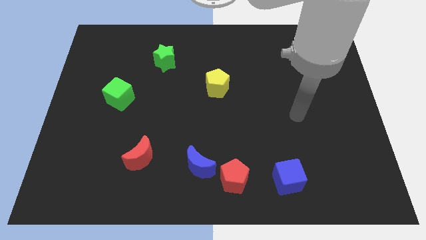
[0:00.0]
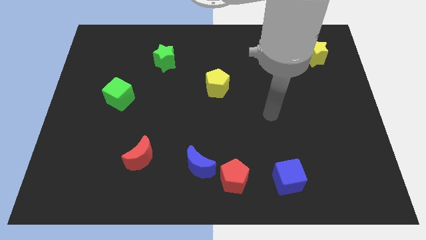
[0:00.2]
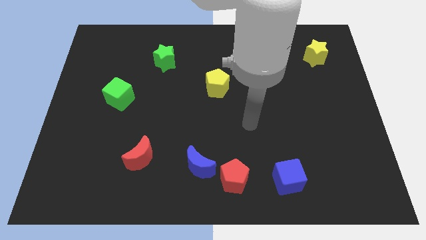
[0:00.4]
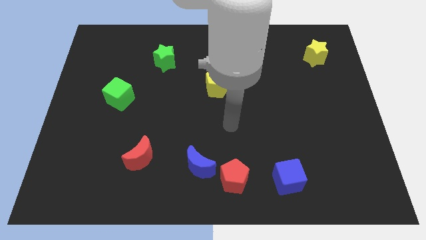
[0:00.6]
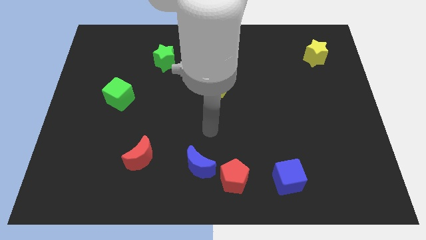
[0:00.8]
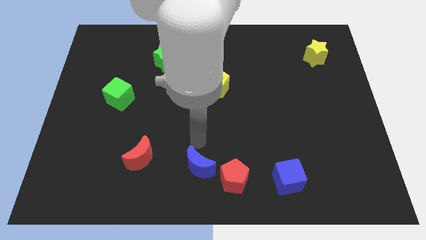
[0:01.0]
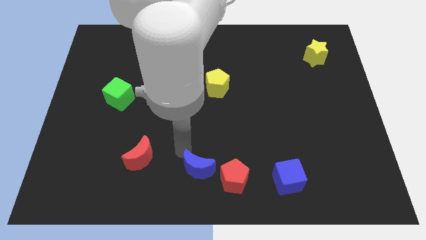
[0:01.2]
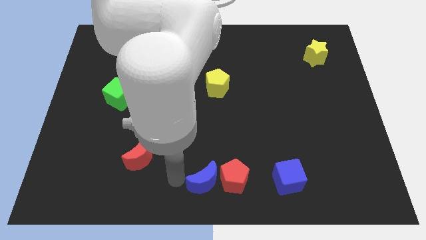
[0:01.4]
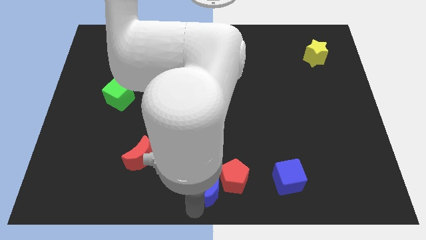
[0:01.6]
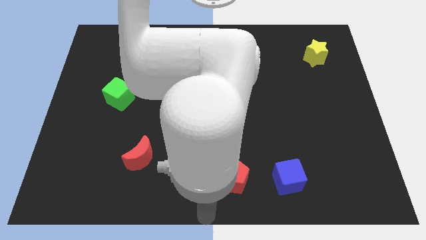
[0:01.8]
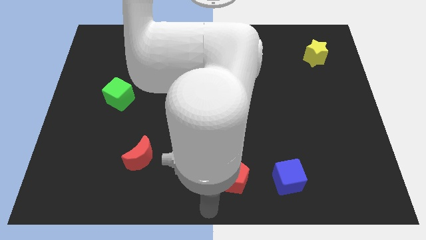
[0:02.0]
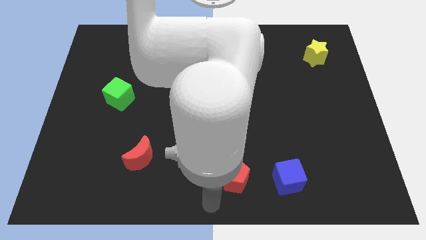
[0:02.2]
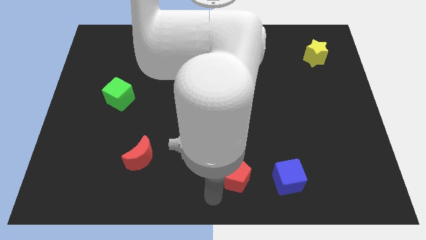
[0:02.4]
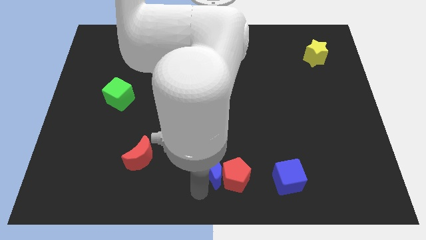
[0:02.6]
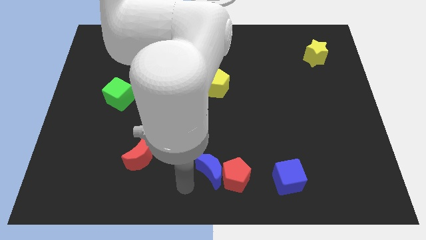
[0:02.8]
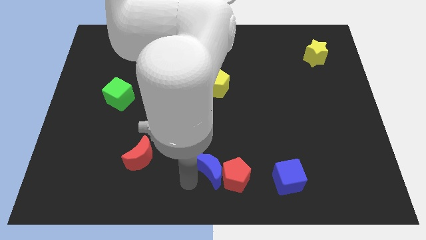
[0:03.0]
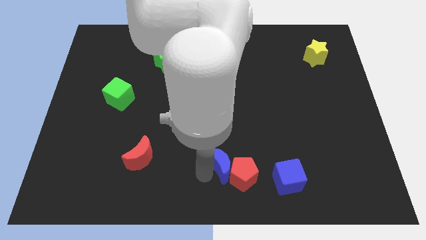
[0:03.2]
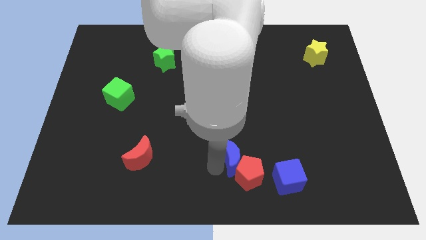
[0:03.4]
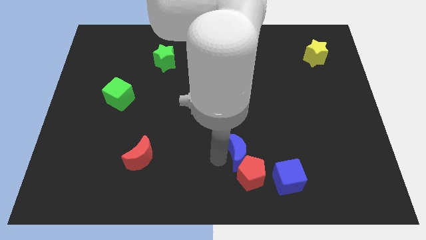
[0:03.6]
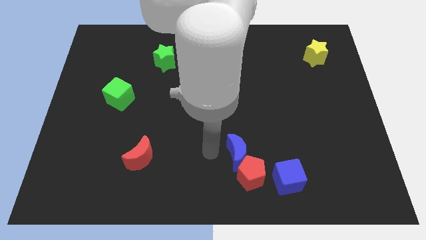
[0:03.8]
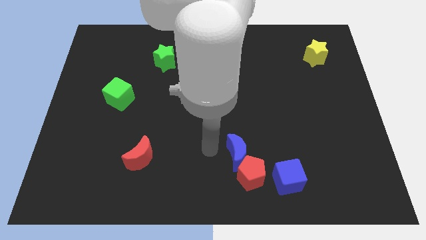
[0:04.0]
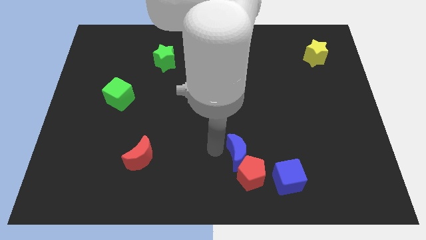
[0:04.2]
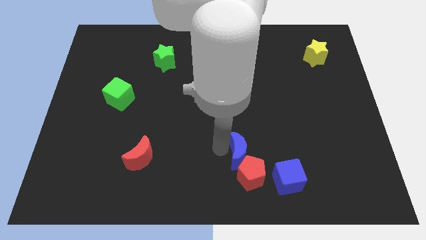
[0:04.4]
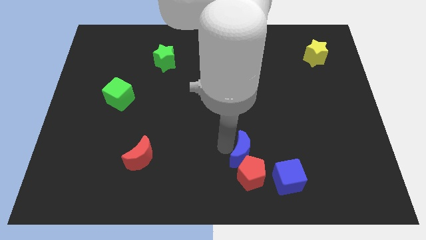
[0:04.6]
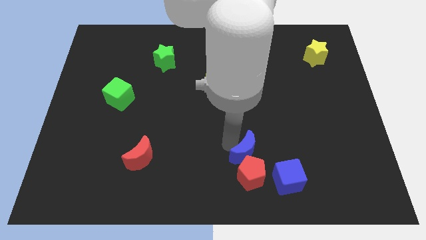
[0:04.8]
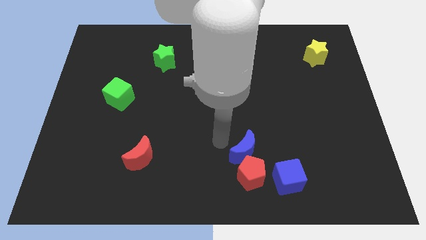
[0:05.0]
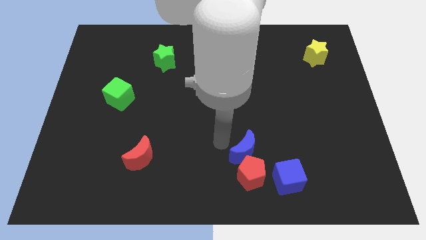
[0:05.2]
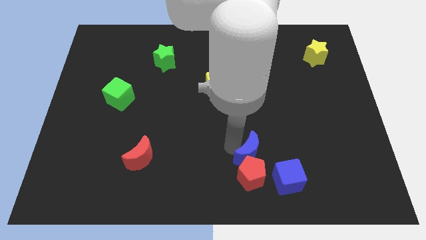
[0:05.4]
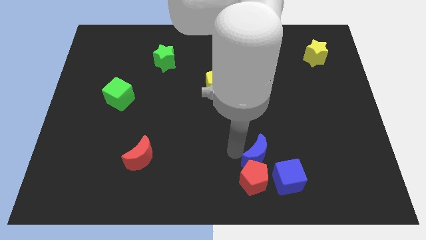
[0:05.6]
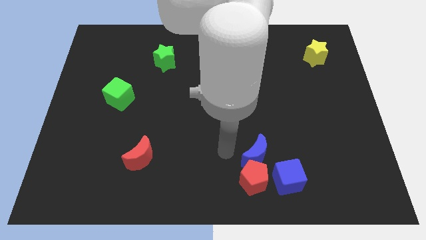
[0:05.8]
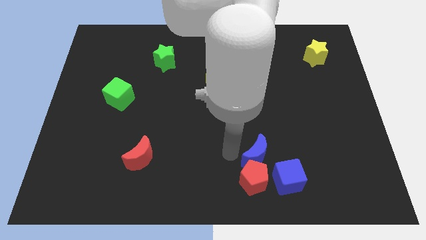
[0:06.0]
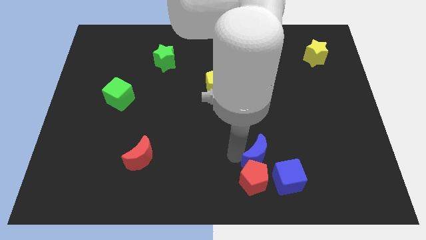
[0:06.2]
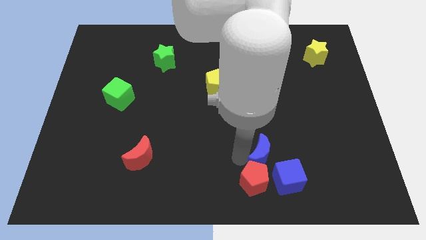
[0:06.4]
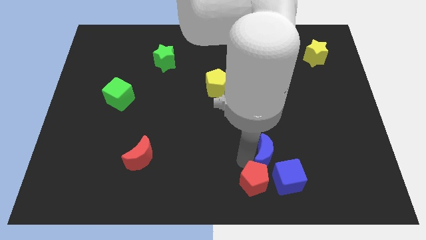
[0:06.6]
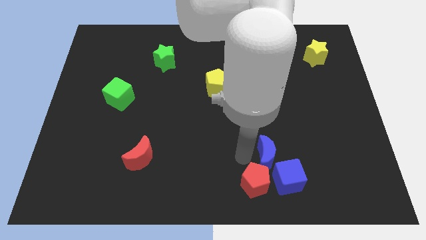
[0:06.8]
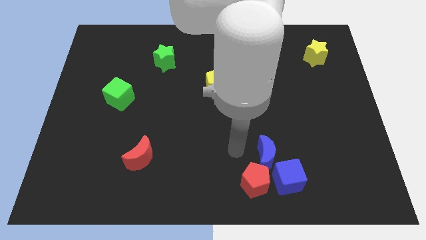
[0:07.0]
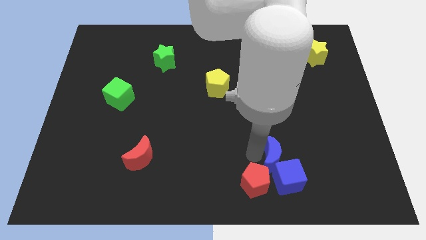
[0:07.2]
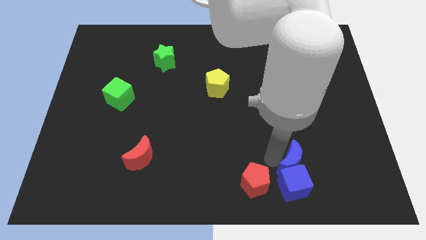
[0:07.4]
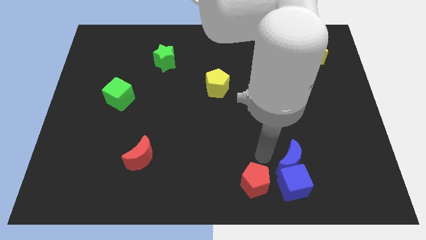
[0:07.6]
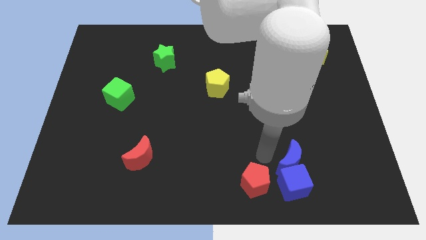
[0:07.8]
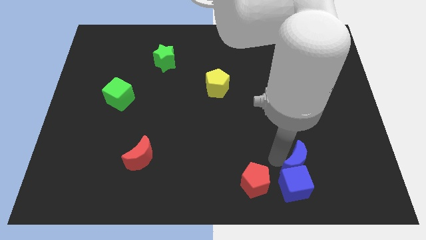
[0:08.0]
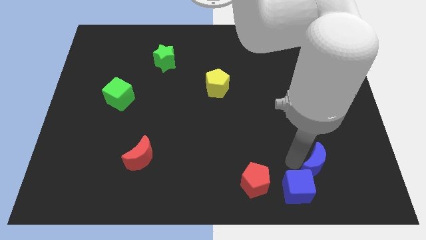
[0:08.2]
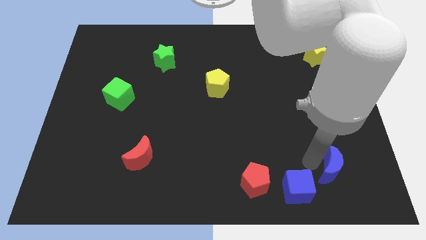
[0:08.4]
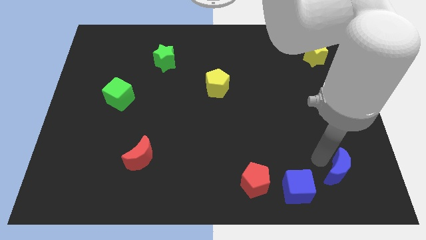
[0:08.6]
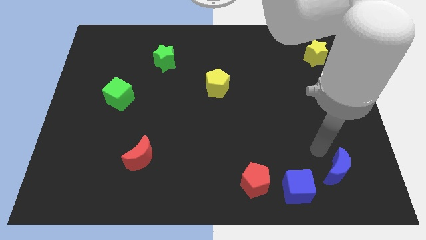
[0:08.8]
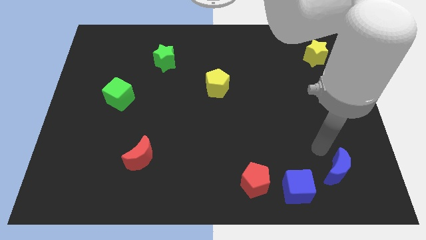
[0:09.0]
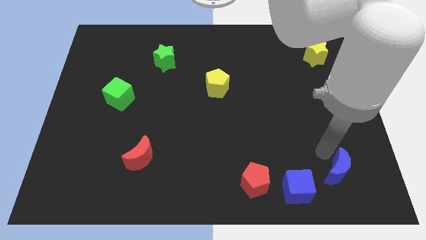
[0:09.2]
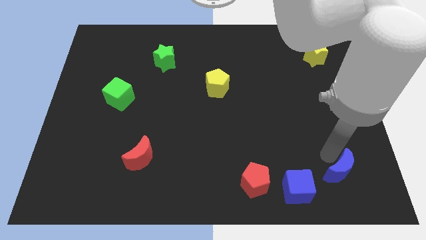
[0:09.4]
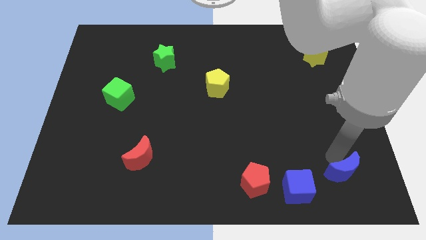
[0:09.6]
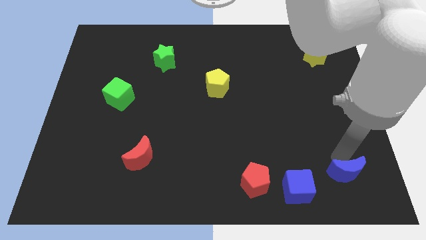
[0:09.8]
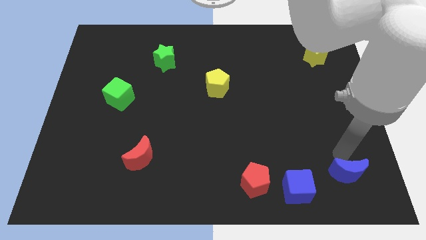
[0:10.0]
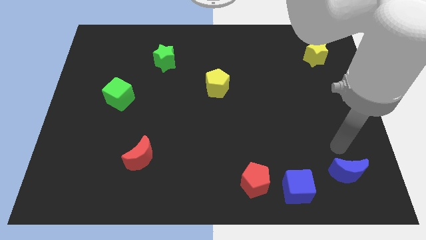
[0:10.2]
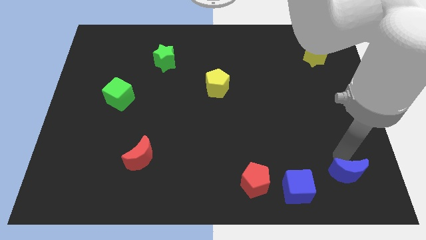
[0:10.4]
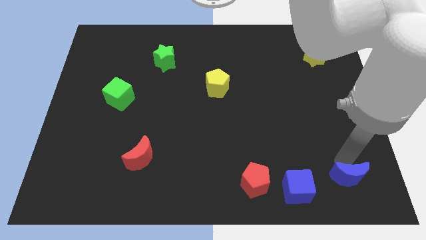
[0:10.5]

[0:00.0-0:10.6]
push the blue moon to the bottom right corner
